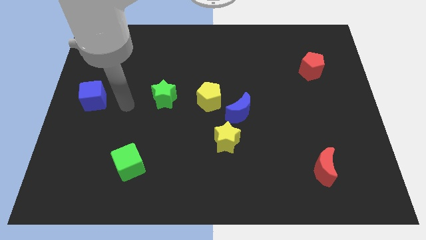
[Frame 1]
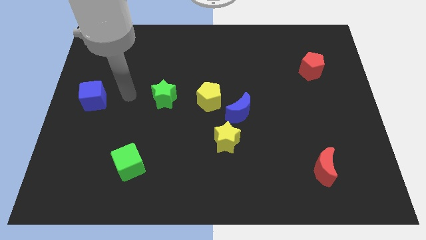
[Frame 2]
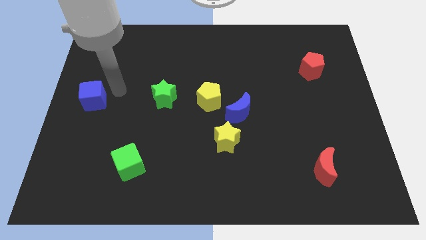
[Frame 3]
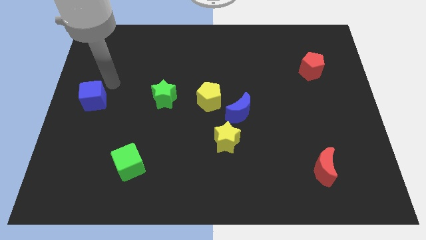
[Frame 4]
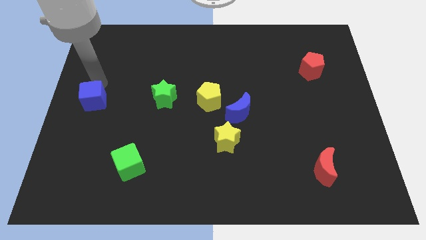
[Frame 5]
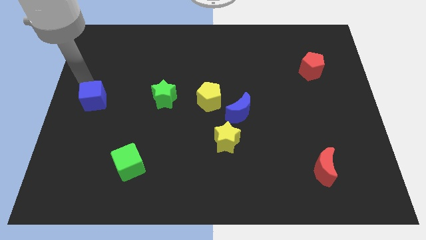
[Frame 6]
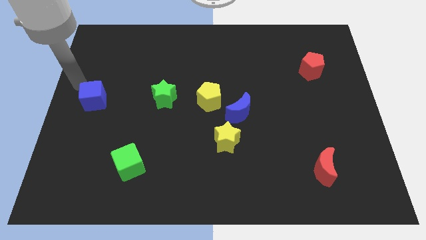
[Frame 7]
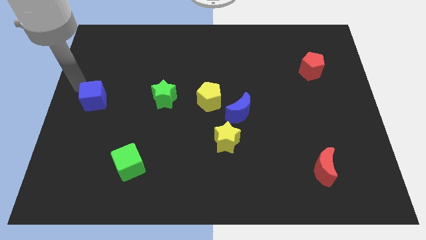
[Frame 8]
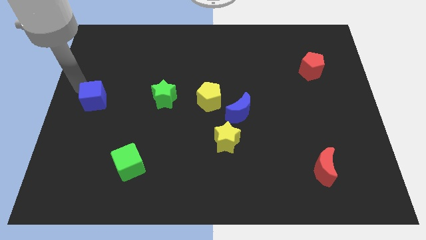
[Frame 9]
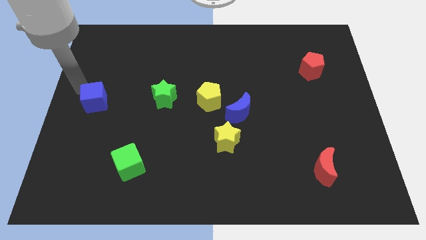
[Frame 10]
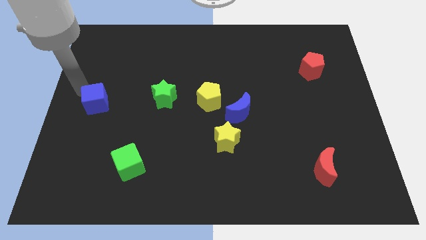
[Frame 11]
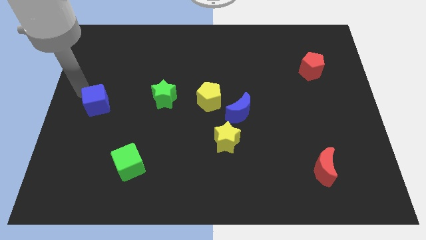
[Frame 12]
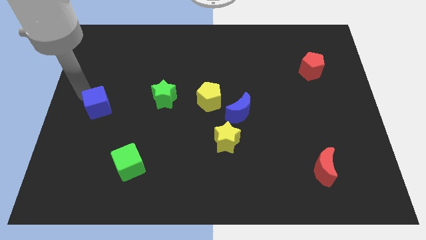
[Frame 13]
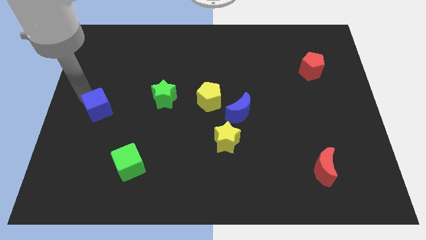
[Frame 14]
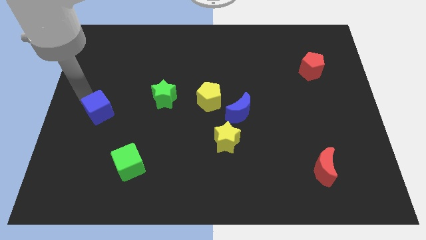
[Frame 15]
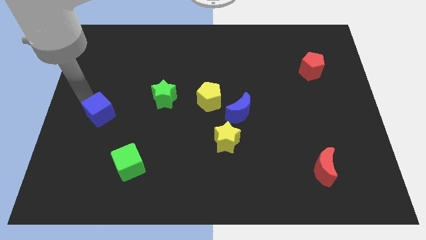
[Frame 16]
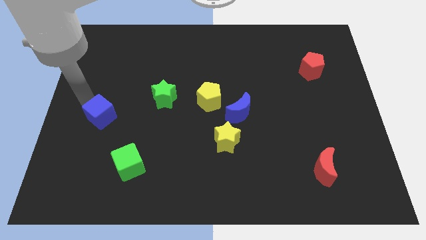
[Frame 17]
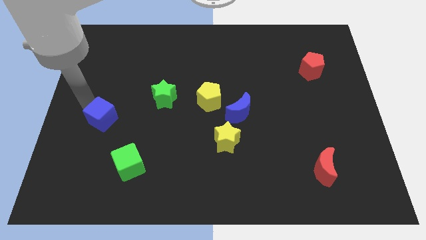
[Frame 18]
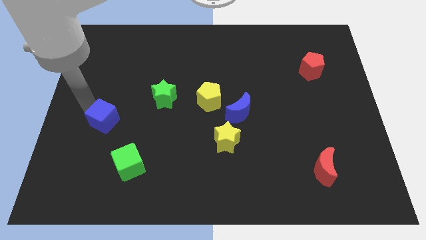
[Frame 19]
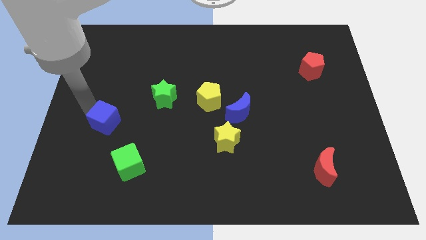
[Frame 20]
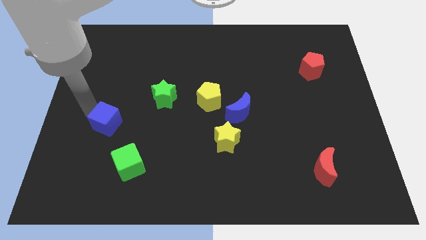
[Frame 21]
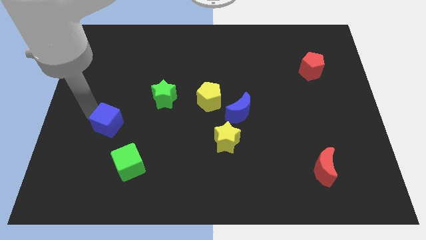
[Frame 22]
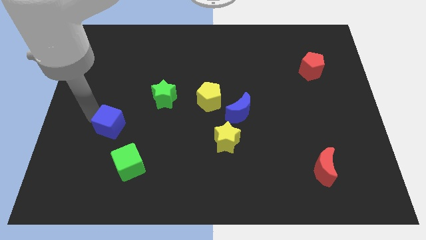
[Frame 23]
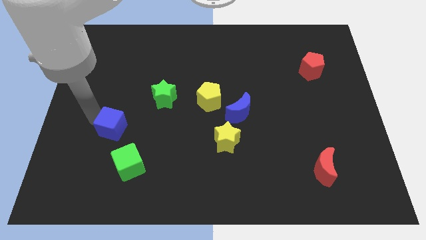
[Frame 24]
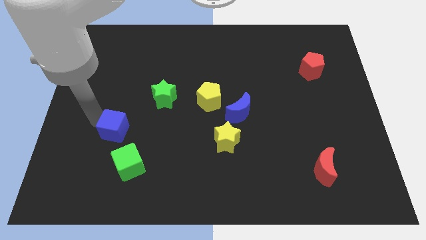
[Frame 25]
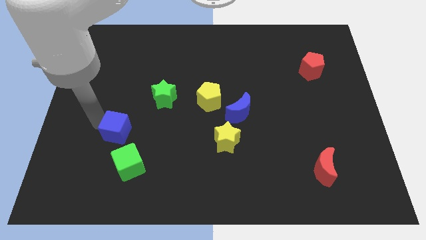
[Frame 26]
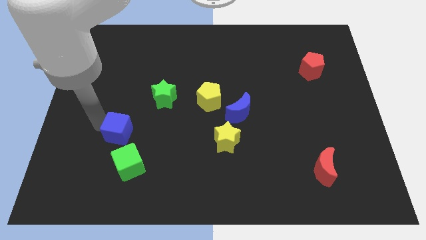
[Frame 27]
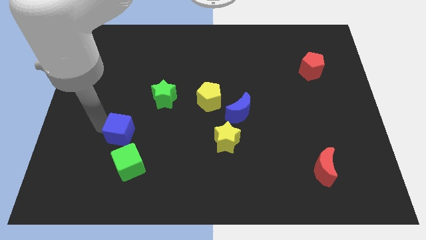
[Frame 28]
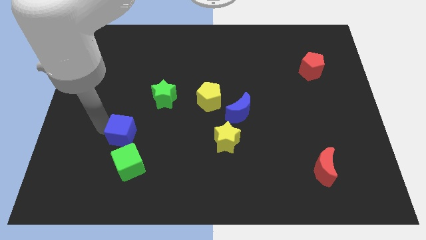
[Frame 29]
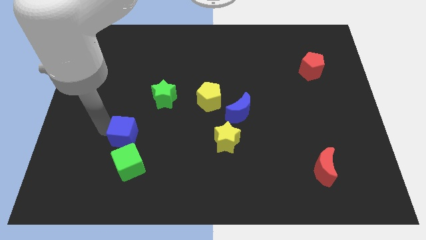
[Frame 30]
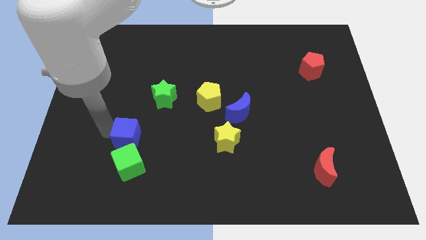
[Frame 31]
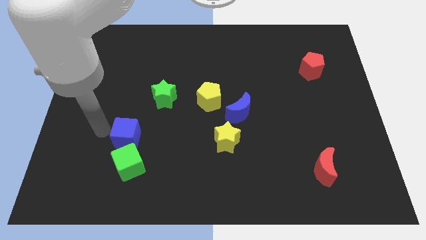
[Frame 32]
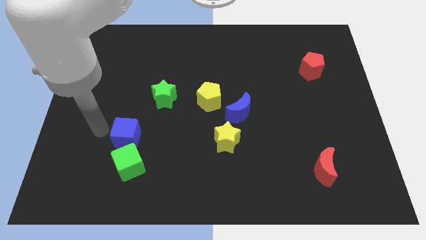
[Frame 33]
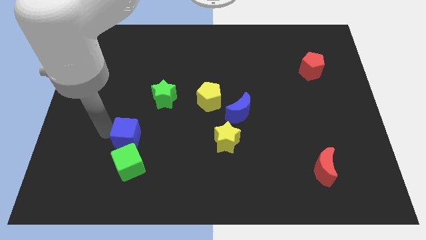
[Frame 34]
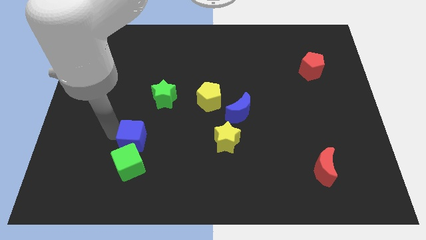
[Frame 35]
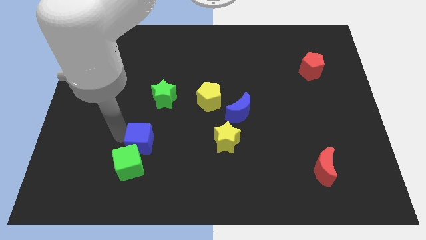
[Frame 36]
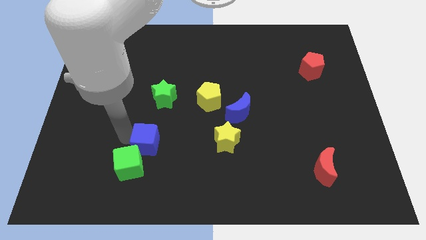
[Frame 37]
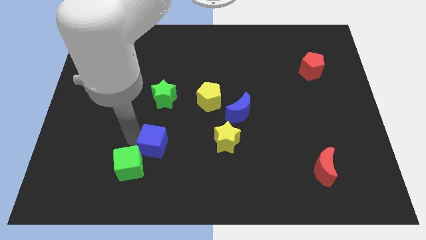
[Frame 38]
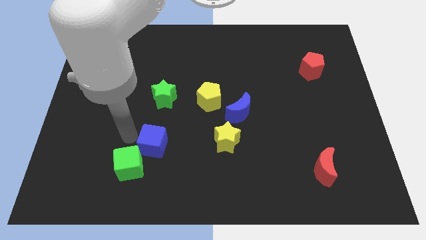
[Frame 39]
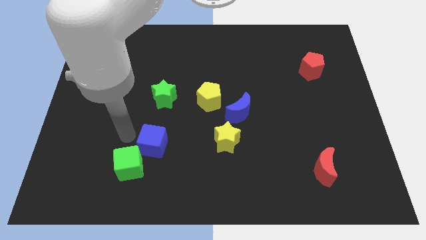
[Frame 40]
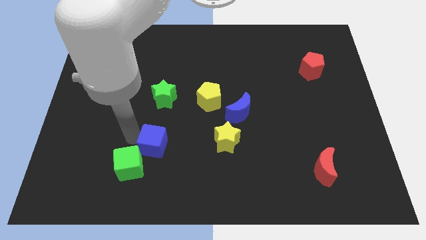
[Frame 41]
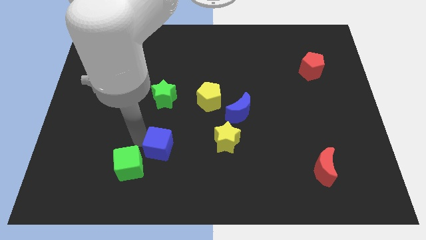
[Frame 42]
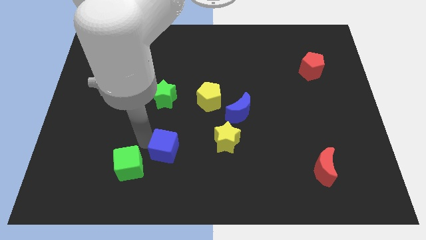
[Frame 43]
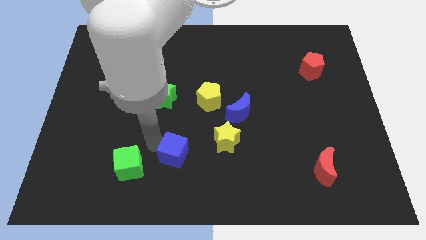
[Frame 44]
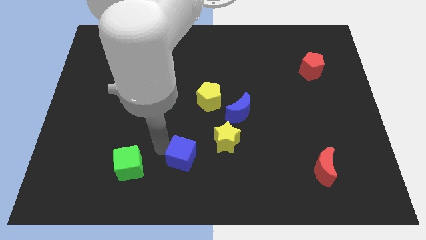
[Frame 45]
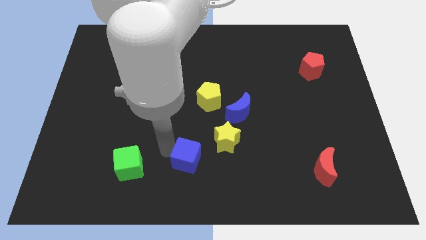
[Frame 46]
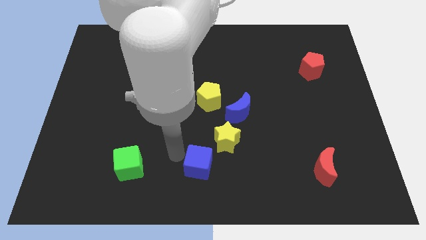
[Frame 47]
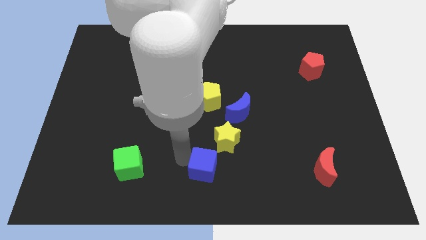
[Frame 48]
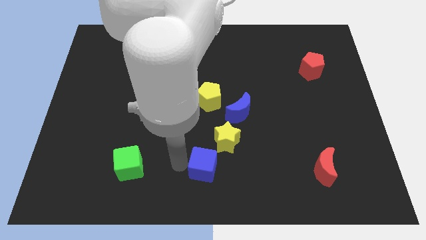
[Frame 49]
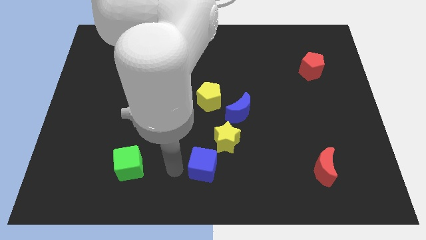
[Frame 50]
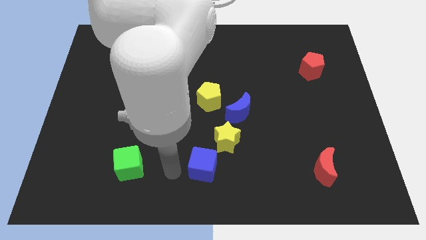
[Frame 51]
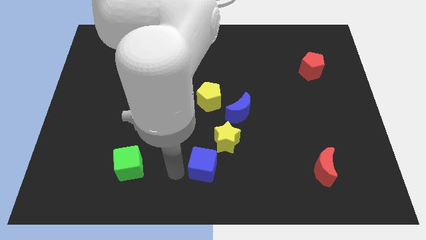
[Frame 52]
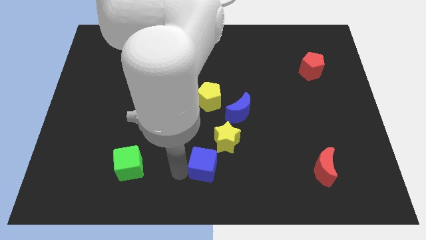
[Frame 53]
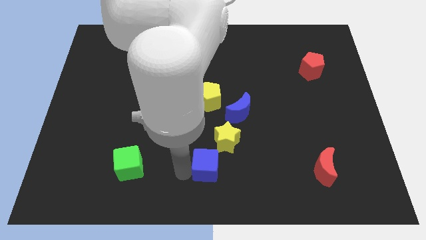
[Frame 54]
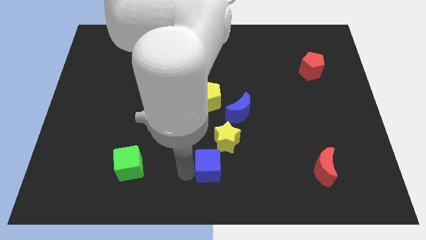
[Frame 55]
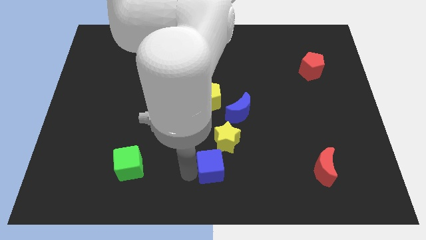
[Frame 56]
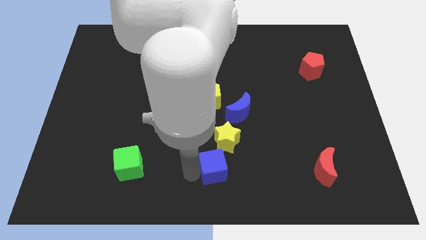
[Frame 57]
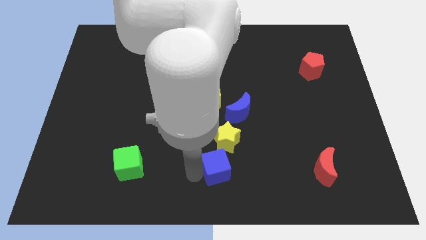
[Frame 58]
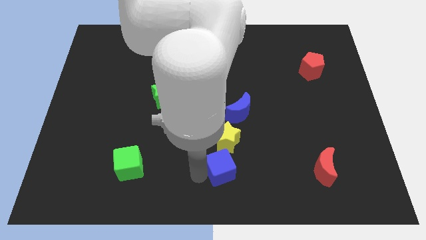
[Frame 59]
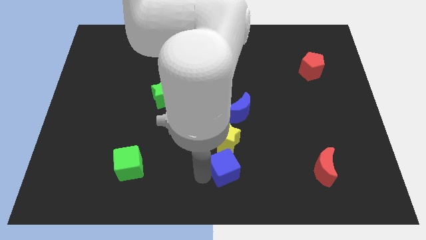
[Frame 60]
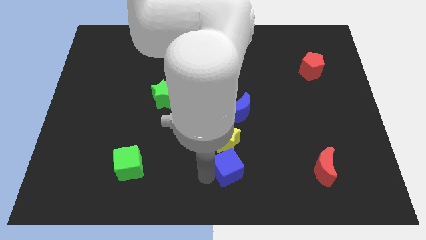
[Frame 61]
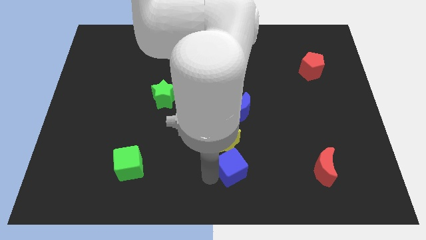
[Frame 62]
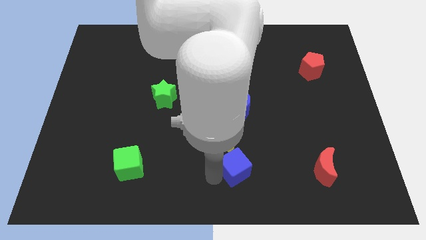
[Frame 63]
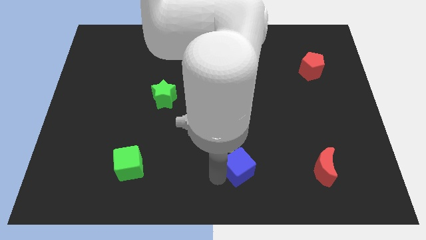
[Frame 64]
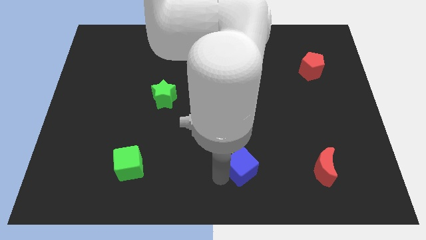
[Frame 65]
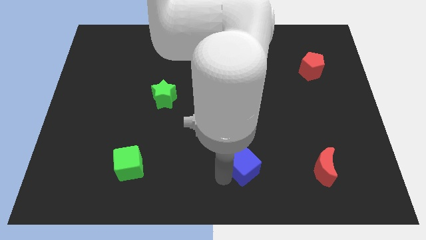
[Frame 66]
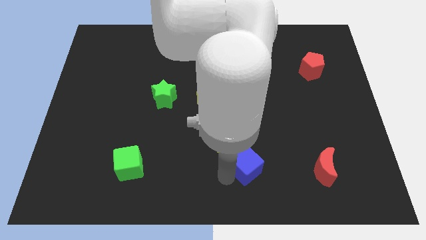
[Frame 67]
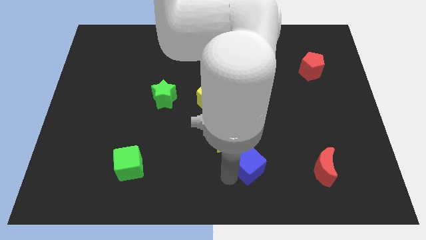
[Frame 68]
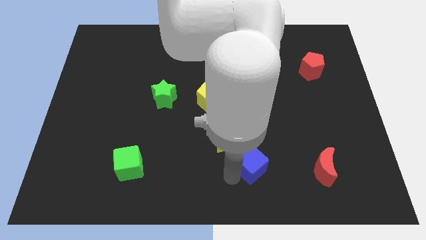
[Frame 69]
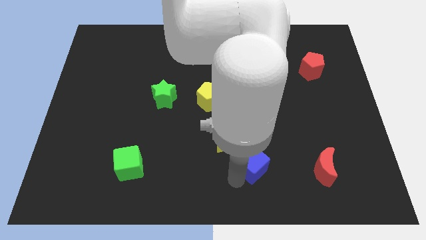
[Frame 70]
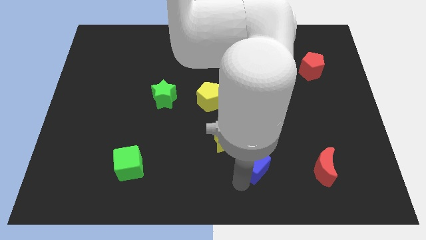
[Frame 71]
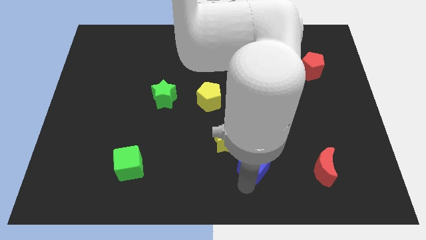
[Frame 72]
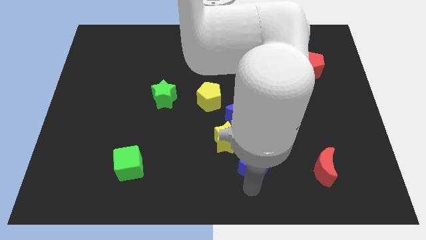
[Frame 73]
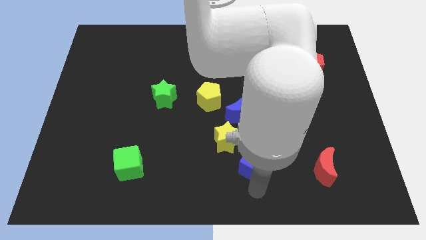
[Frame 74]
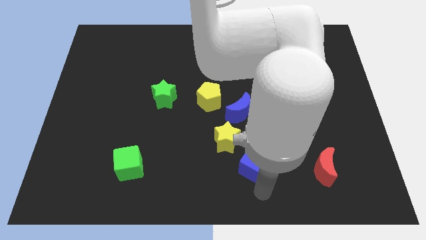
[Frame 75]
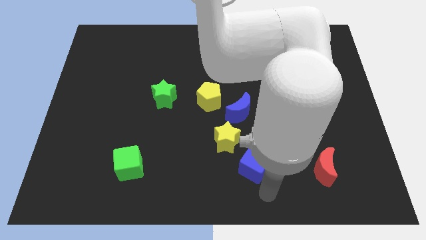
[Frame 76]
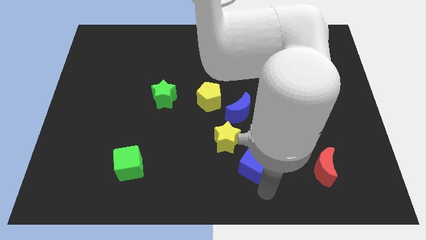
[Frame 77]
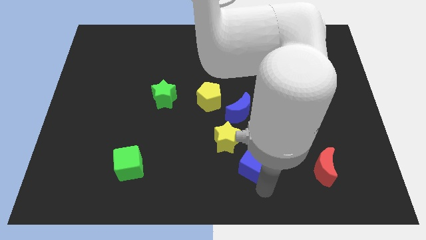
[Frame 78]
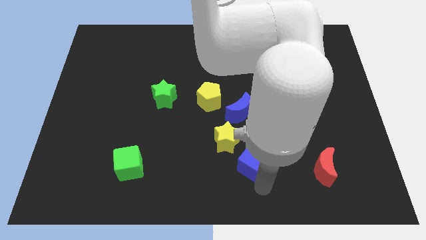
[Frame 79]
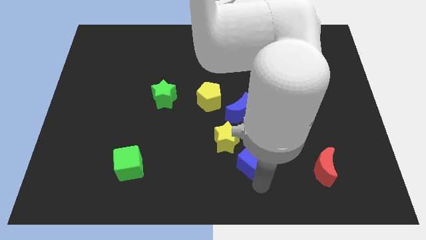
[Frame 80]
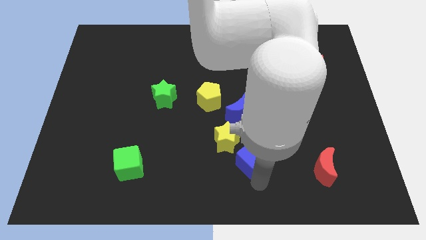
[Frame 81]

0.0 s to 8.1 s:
move the blue cube to the right side of the yellow star
